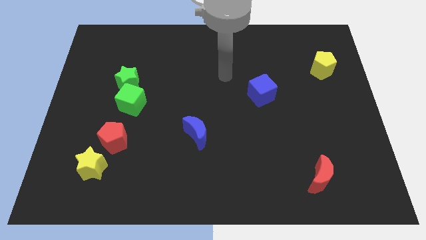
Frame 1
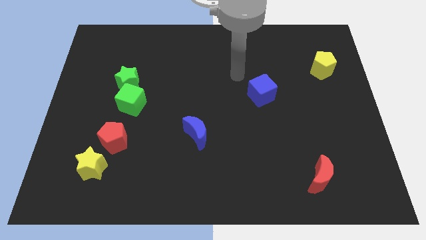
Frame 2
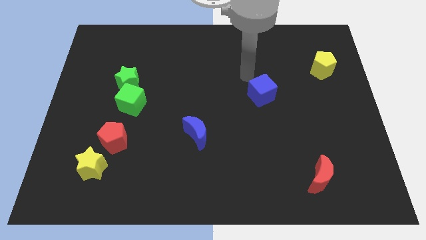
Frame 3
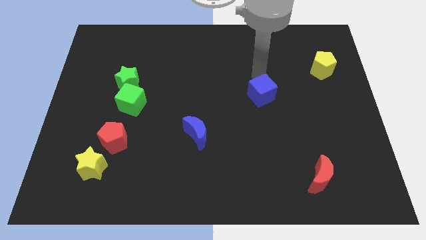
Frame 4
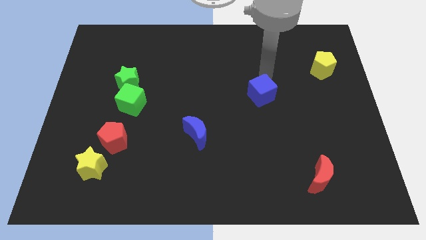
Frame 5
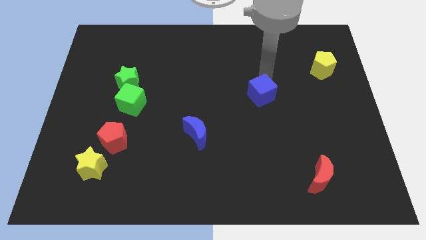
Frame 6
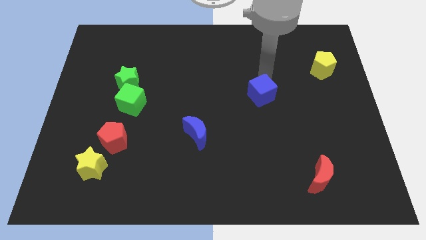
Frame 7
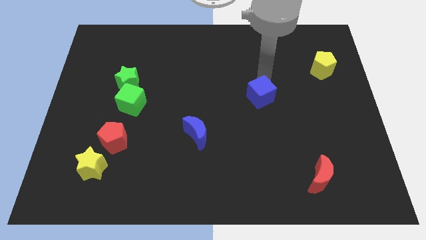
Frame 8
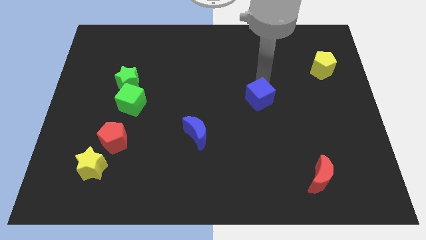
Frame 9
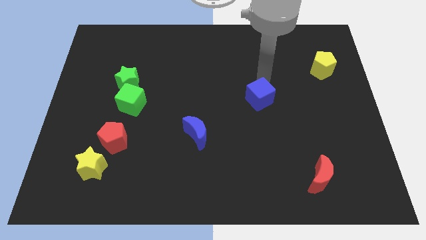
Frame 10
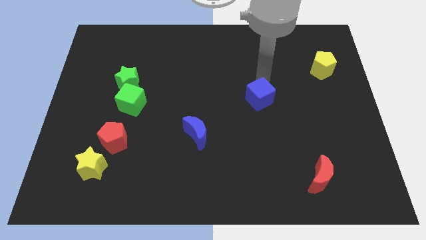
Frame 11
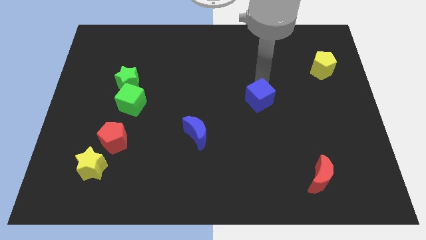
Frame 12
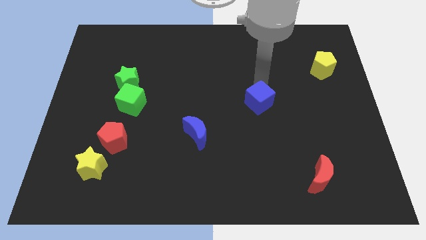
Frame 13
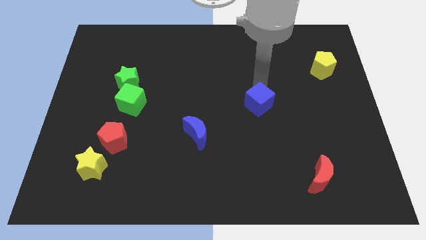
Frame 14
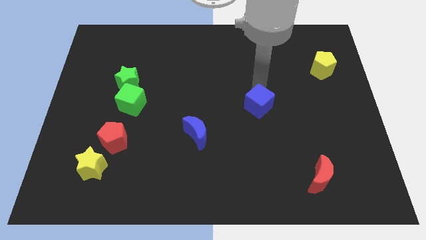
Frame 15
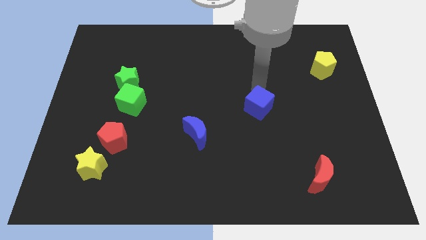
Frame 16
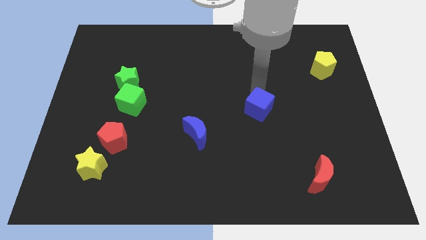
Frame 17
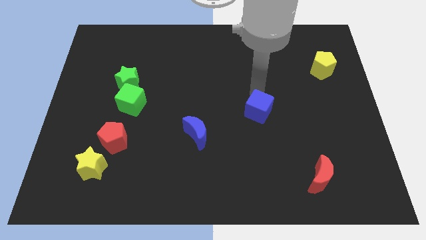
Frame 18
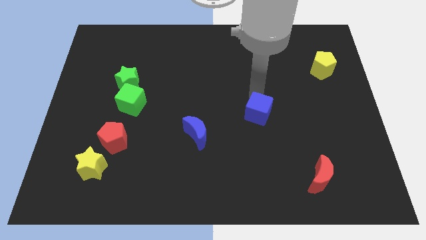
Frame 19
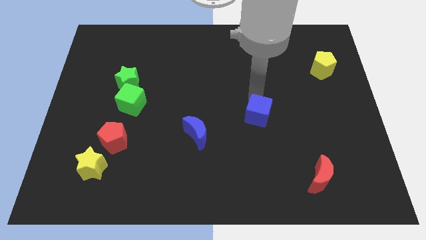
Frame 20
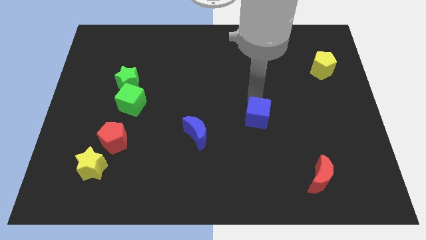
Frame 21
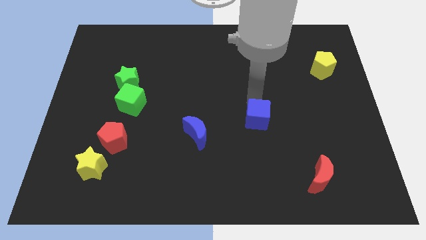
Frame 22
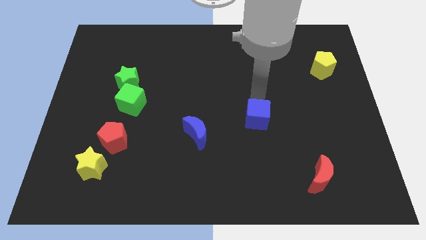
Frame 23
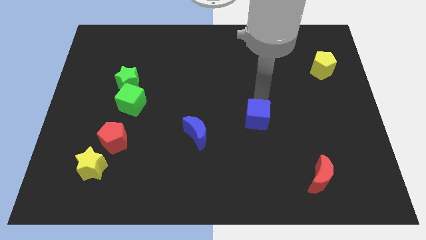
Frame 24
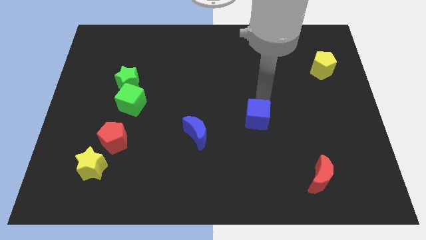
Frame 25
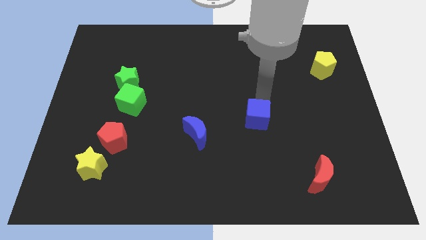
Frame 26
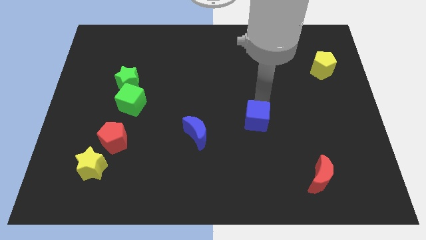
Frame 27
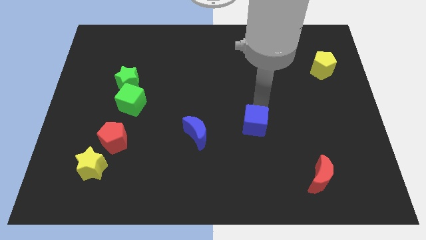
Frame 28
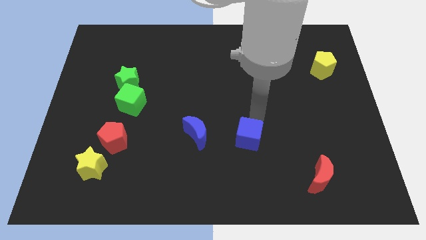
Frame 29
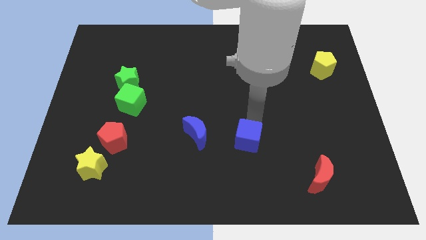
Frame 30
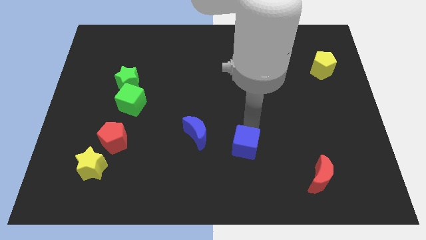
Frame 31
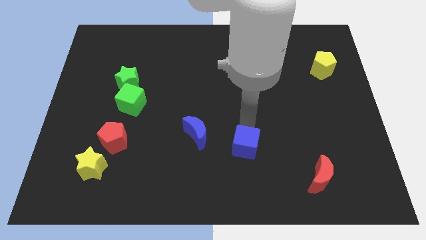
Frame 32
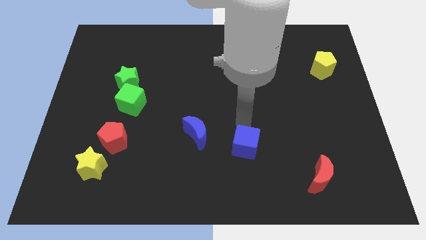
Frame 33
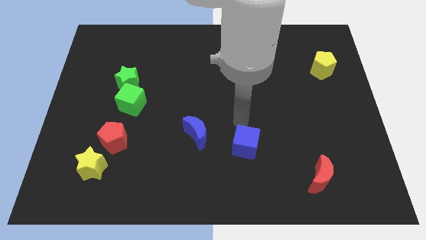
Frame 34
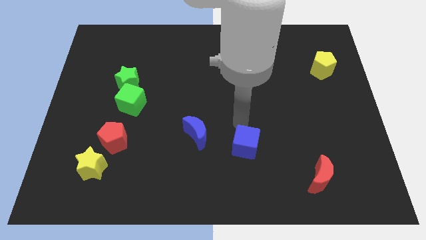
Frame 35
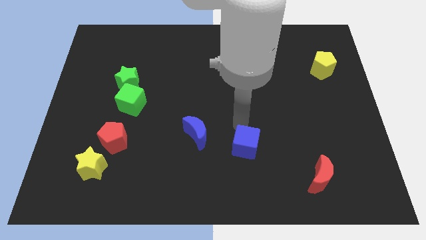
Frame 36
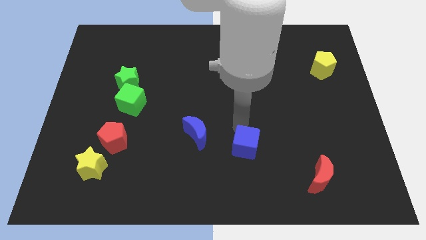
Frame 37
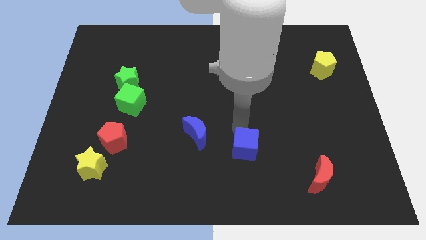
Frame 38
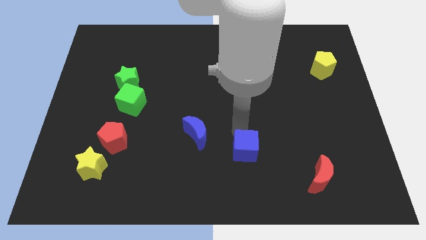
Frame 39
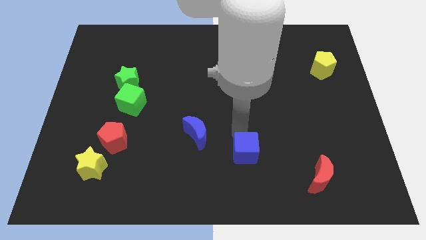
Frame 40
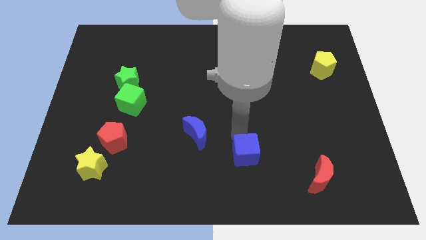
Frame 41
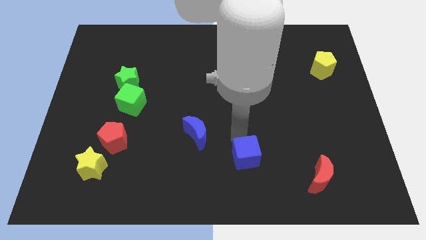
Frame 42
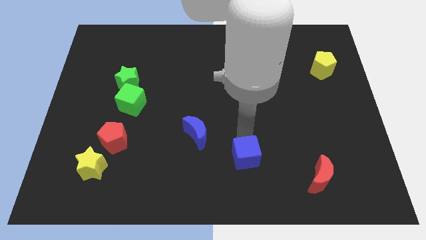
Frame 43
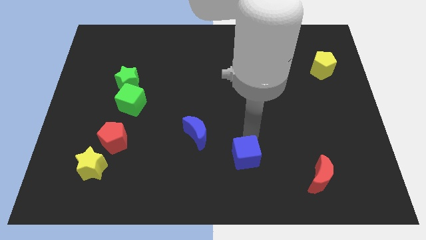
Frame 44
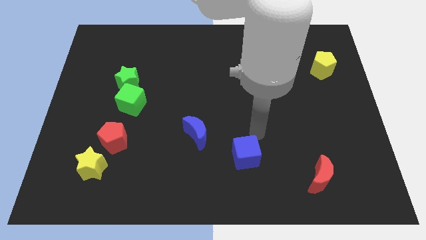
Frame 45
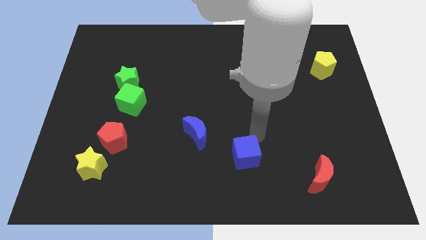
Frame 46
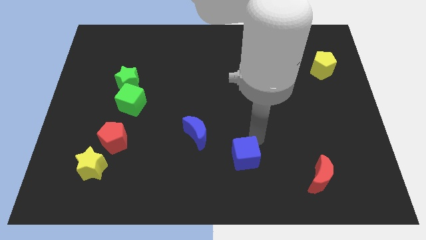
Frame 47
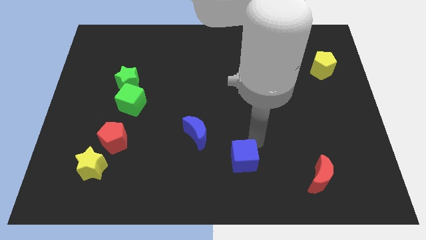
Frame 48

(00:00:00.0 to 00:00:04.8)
slide the blue cube to the bottom side

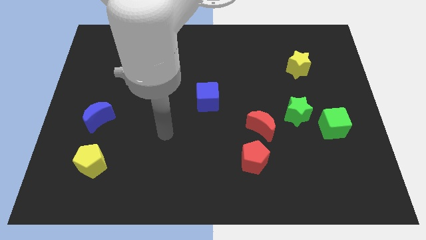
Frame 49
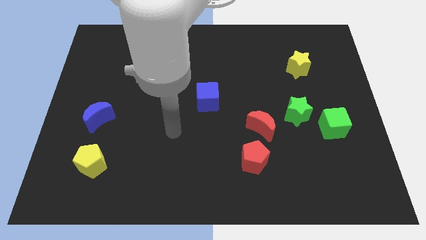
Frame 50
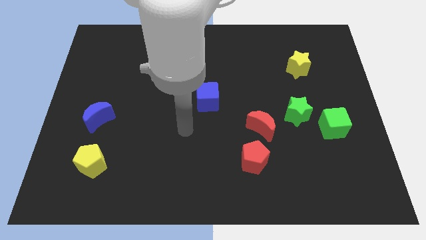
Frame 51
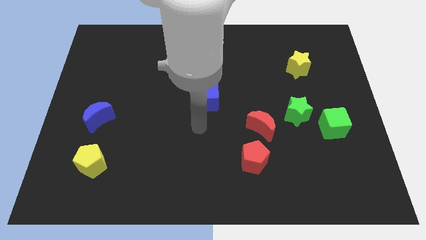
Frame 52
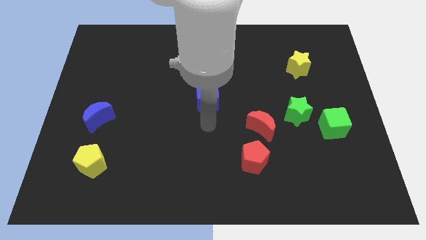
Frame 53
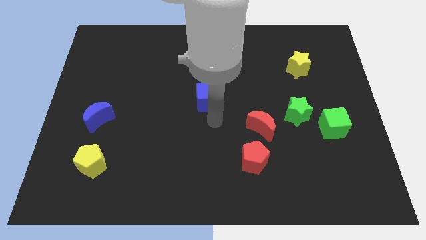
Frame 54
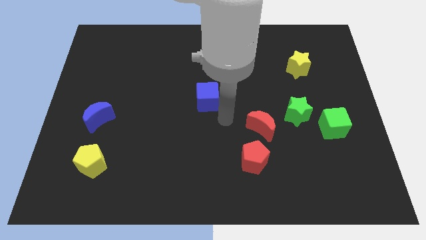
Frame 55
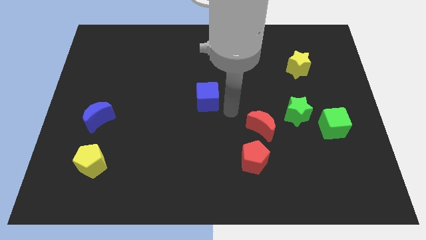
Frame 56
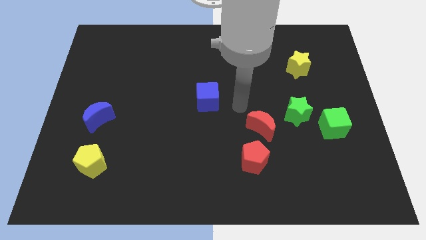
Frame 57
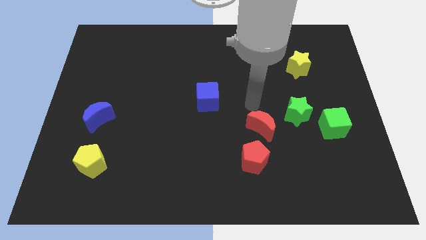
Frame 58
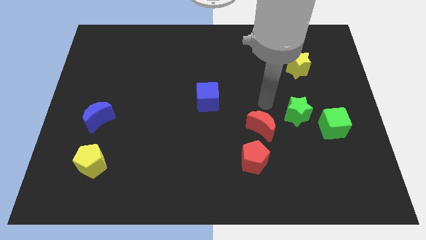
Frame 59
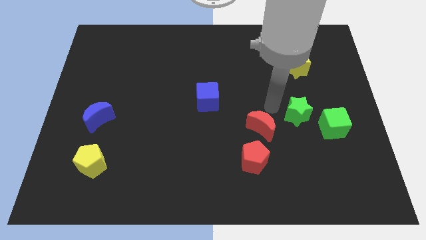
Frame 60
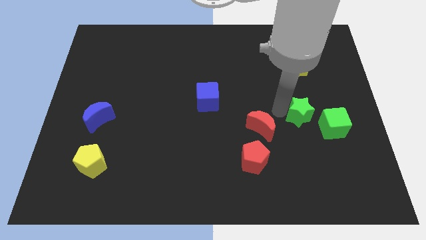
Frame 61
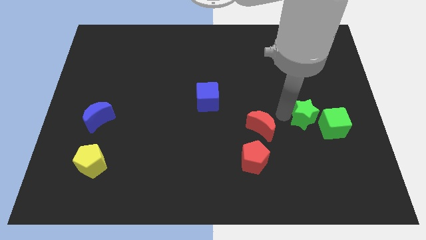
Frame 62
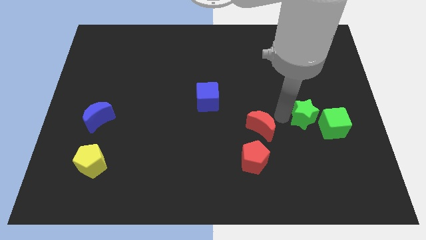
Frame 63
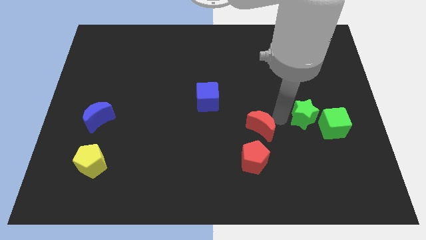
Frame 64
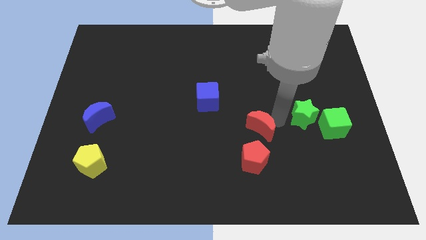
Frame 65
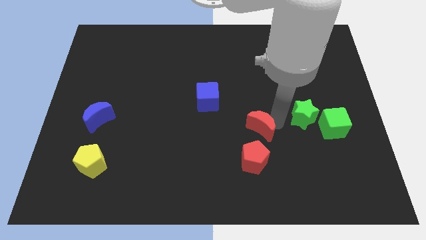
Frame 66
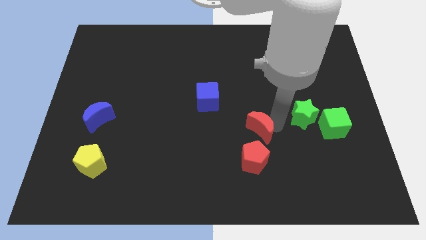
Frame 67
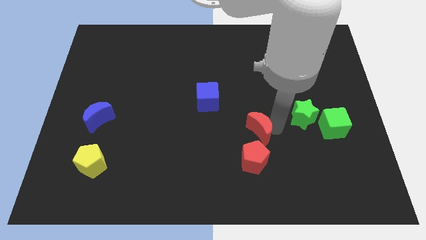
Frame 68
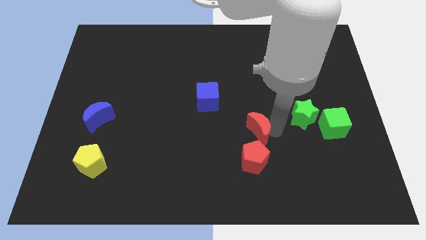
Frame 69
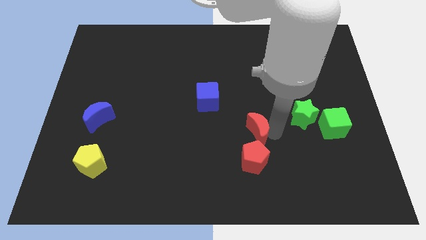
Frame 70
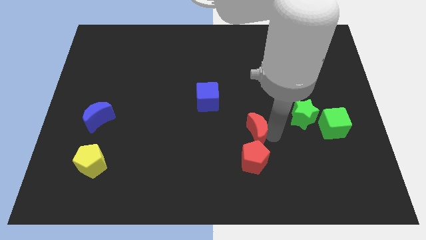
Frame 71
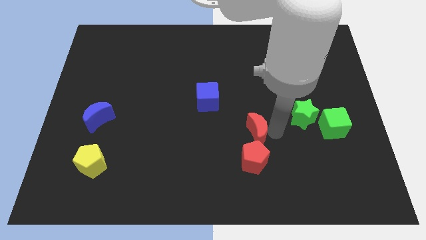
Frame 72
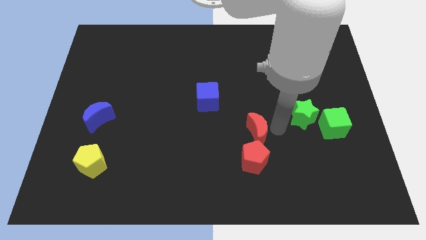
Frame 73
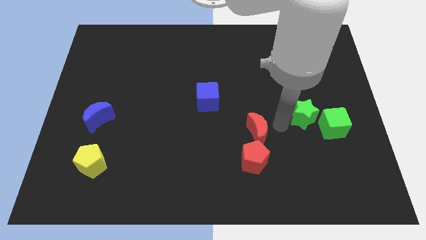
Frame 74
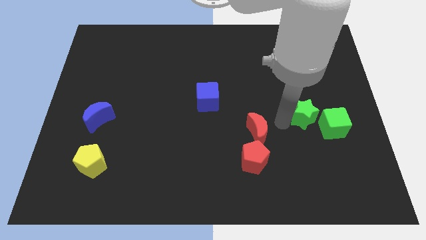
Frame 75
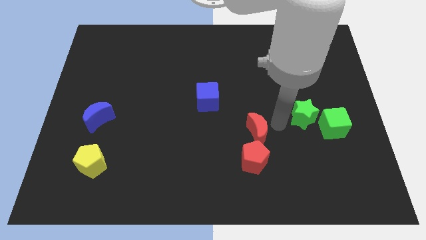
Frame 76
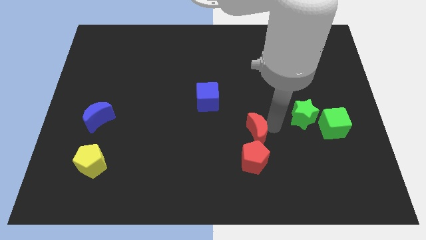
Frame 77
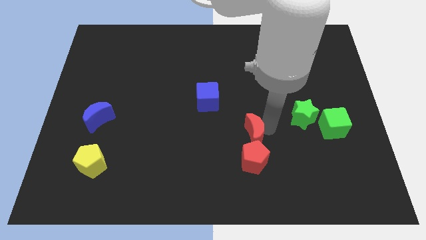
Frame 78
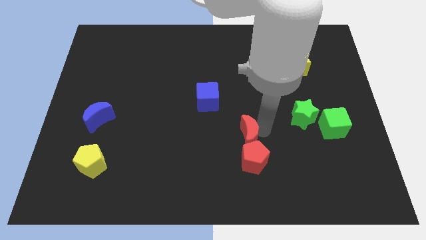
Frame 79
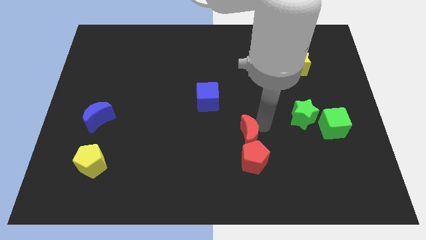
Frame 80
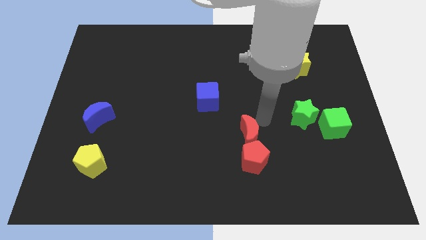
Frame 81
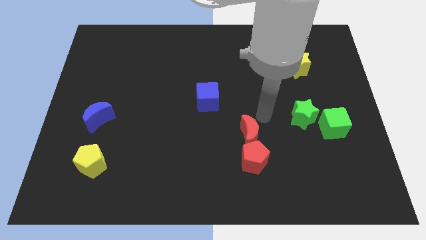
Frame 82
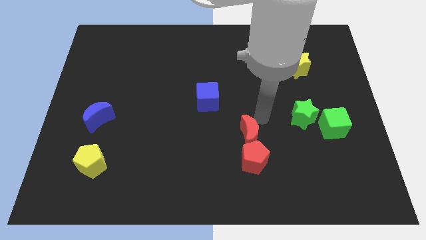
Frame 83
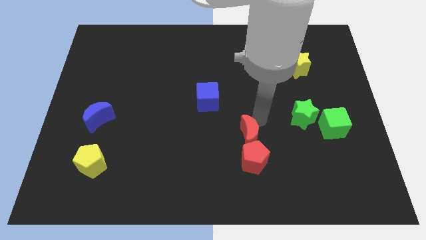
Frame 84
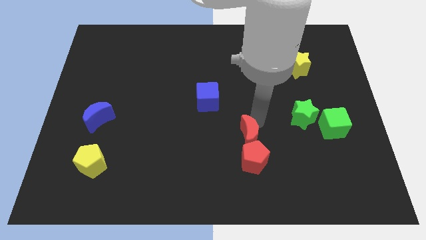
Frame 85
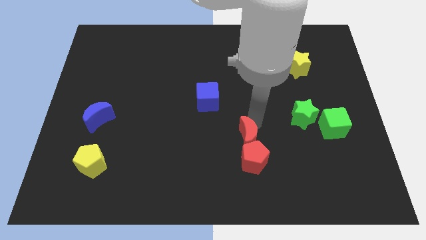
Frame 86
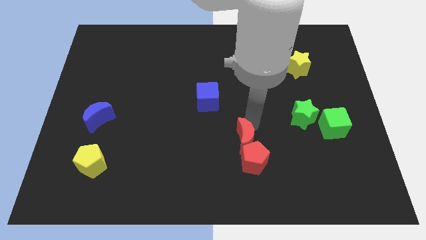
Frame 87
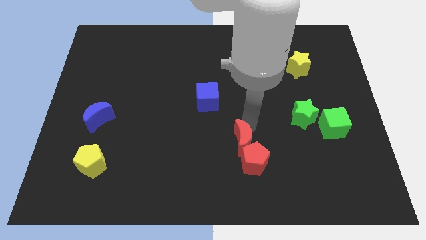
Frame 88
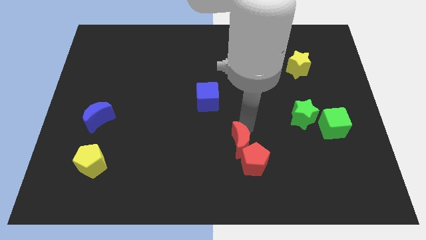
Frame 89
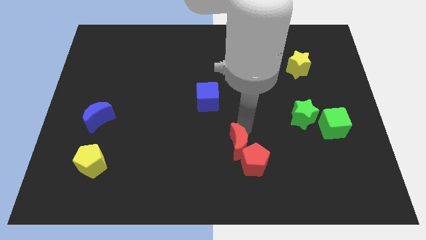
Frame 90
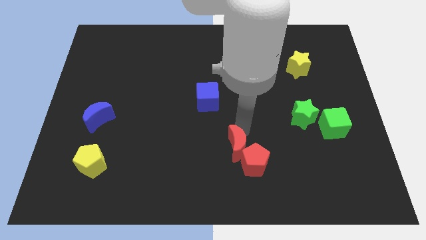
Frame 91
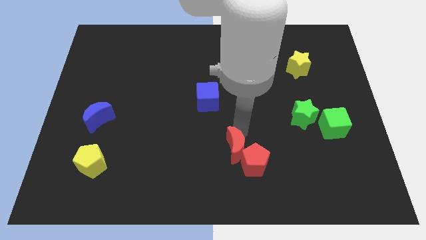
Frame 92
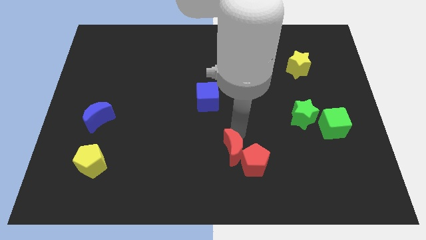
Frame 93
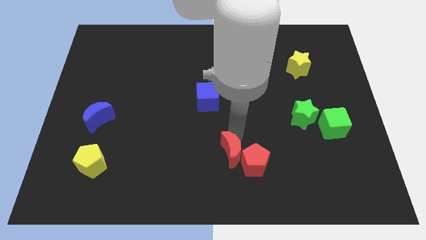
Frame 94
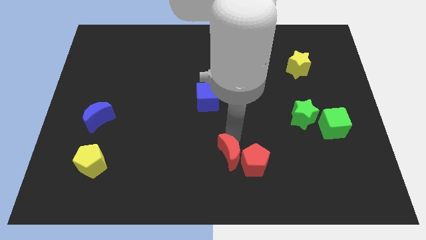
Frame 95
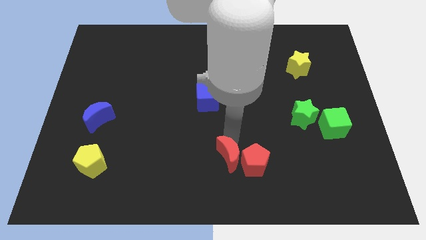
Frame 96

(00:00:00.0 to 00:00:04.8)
push the red moon to the bottom side
